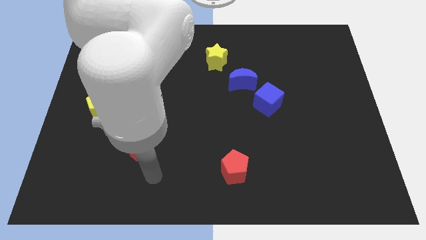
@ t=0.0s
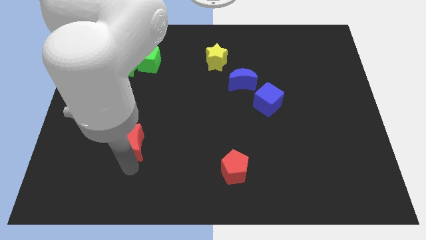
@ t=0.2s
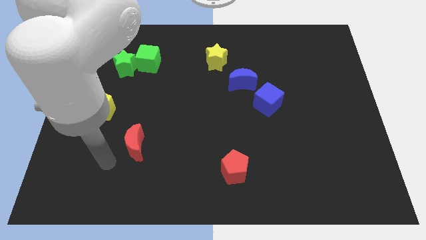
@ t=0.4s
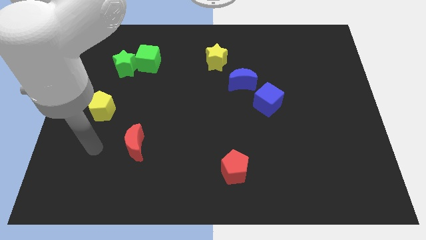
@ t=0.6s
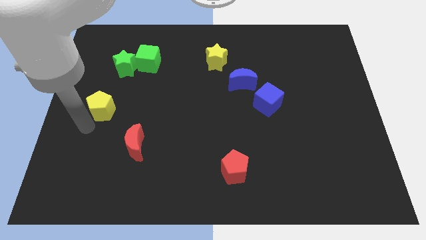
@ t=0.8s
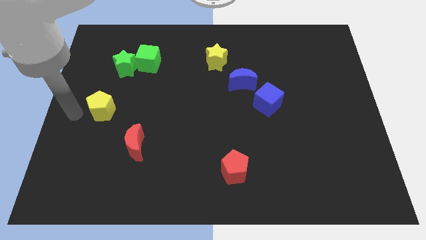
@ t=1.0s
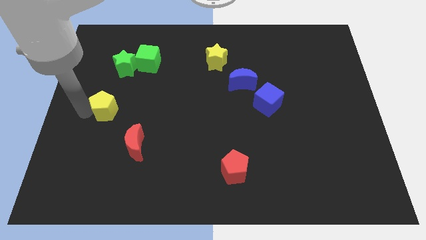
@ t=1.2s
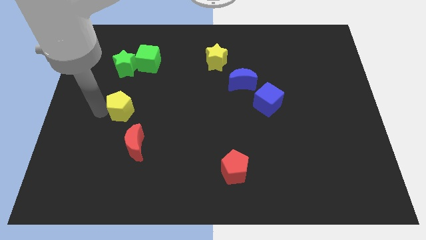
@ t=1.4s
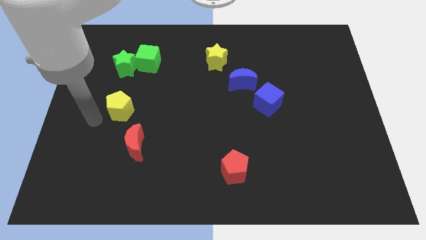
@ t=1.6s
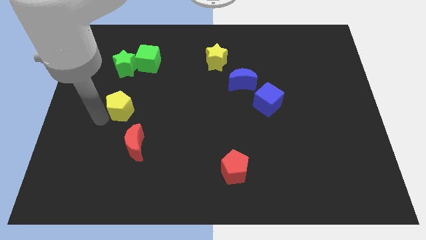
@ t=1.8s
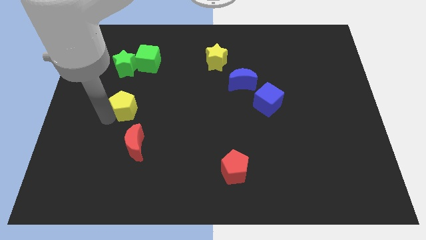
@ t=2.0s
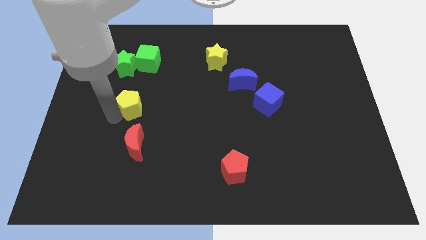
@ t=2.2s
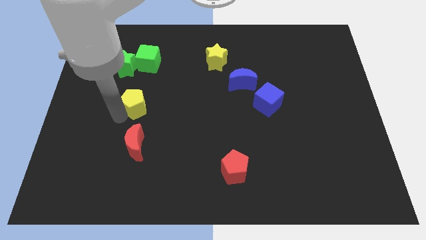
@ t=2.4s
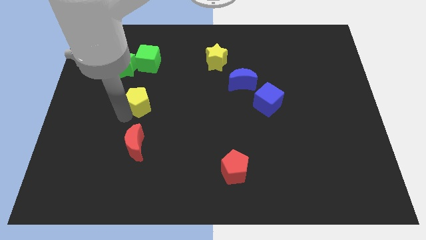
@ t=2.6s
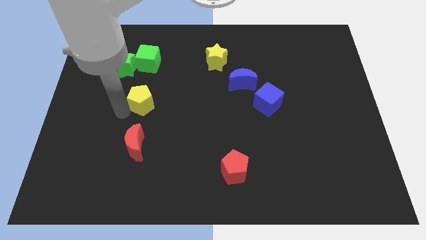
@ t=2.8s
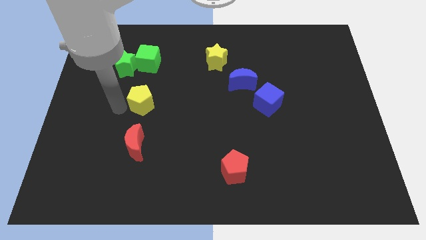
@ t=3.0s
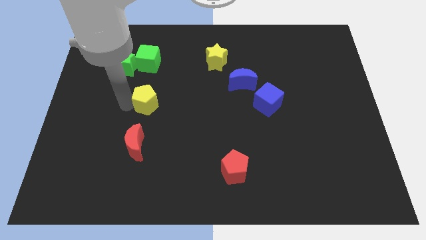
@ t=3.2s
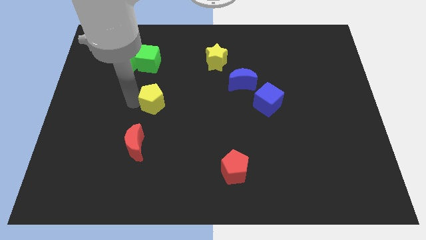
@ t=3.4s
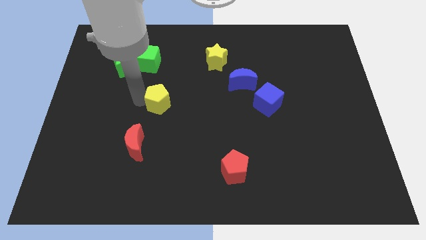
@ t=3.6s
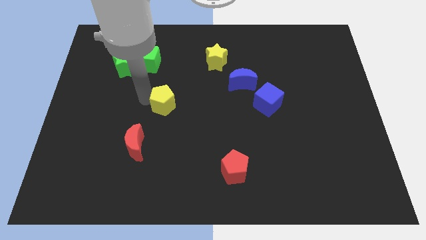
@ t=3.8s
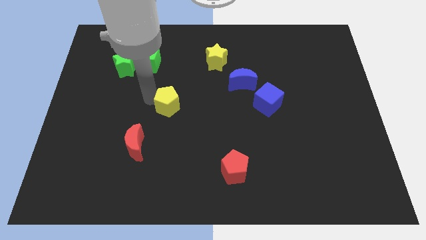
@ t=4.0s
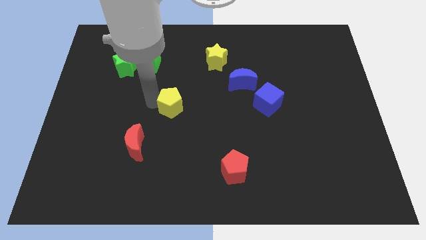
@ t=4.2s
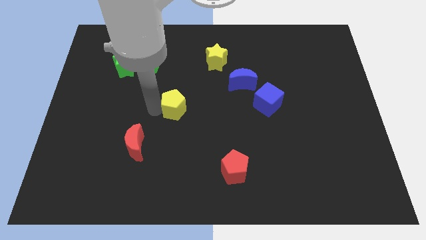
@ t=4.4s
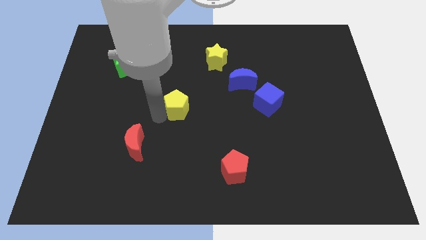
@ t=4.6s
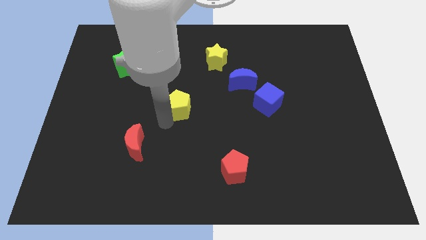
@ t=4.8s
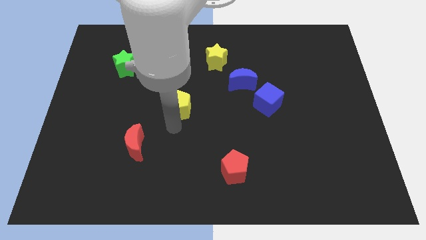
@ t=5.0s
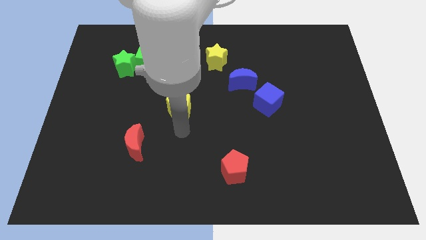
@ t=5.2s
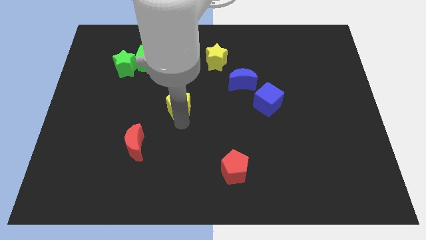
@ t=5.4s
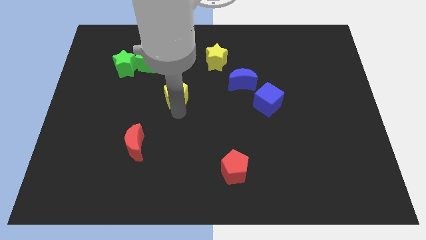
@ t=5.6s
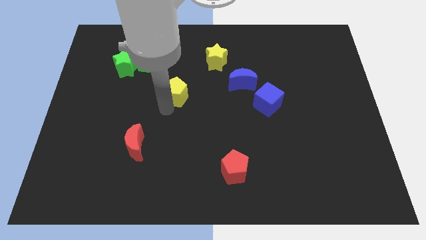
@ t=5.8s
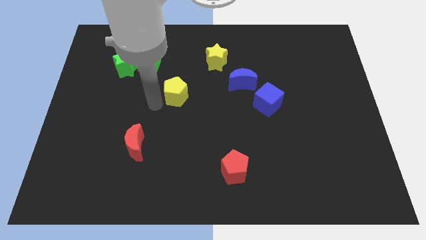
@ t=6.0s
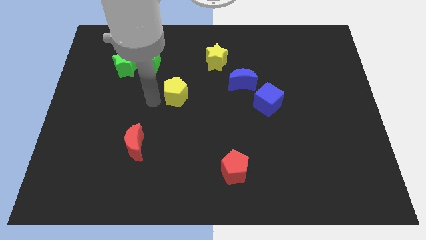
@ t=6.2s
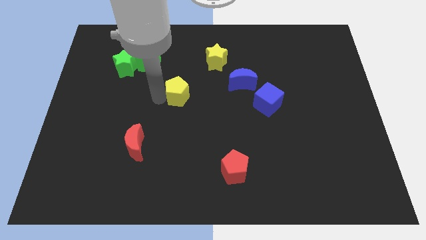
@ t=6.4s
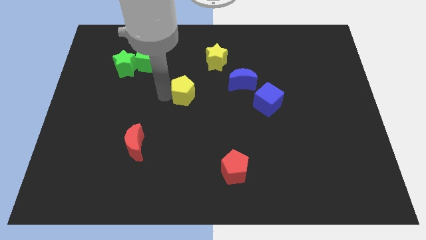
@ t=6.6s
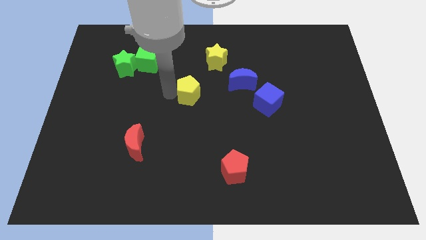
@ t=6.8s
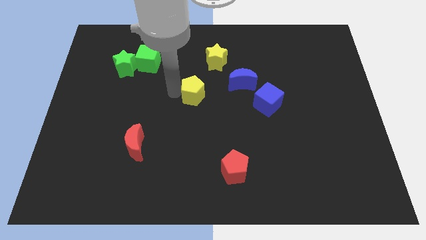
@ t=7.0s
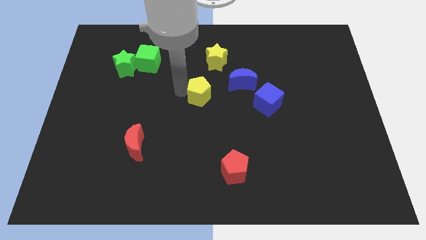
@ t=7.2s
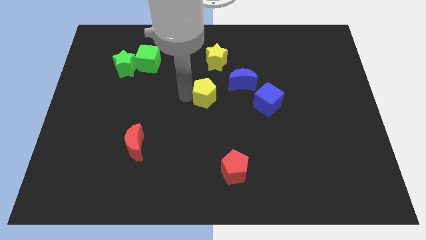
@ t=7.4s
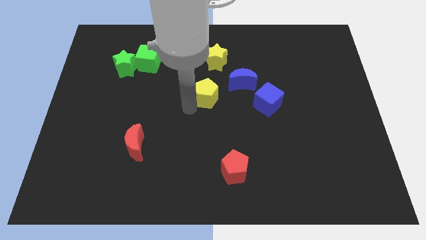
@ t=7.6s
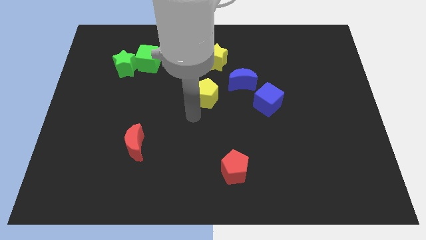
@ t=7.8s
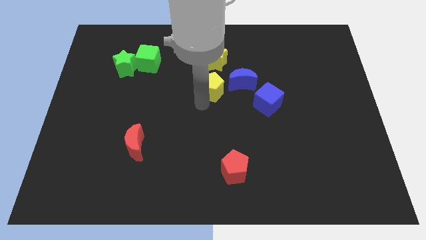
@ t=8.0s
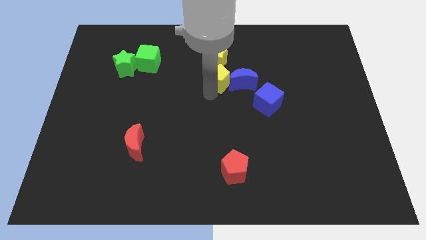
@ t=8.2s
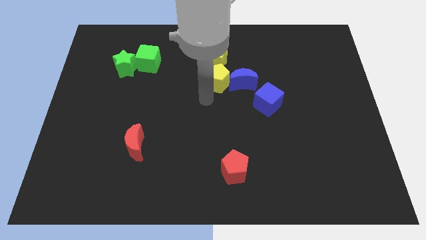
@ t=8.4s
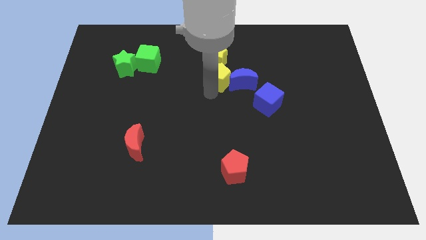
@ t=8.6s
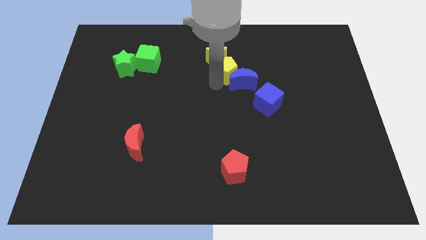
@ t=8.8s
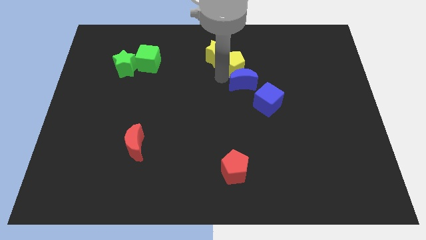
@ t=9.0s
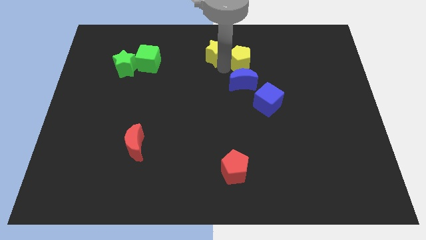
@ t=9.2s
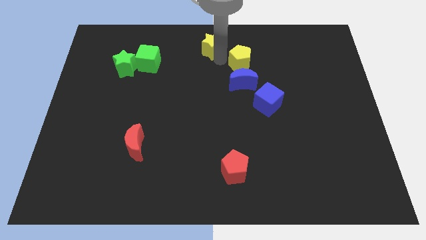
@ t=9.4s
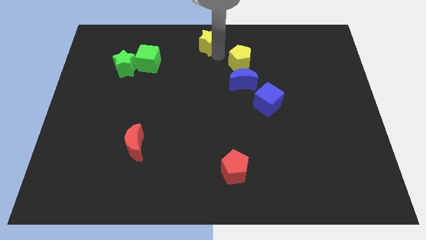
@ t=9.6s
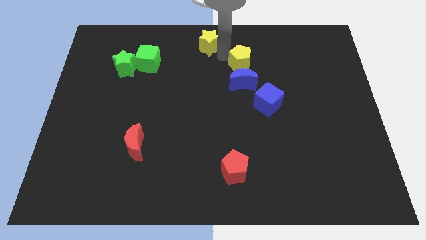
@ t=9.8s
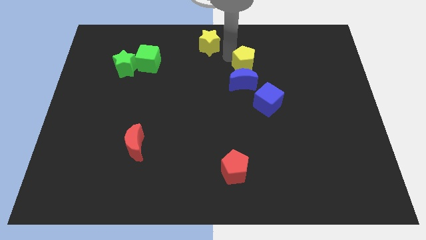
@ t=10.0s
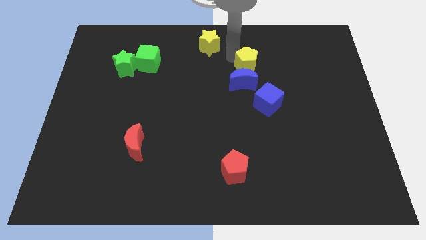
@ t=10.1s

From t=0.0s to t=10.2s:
move the yellow pentagon to the top of the blue cube

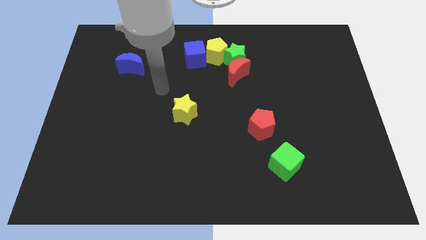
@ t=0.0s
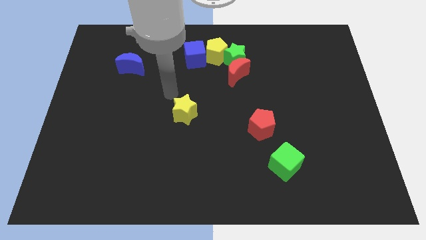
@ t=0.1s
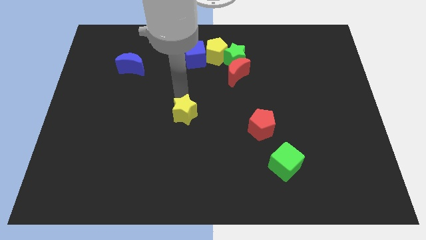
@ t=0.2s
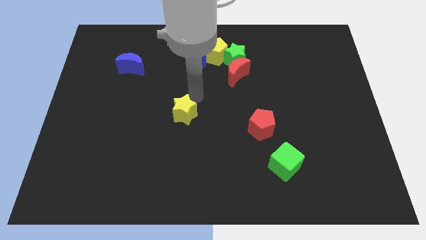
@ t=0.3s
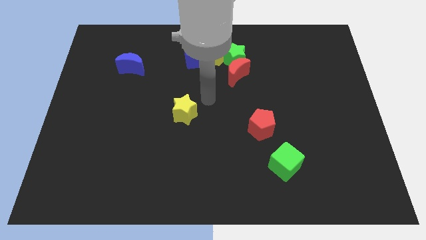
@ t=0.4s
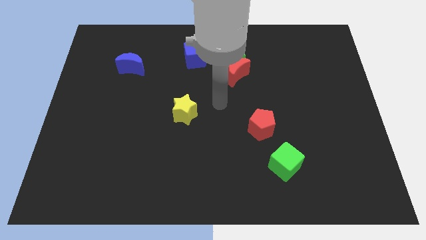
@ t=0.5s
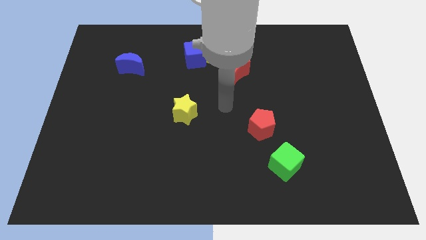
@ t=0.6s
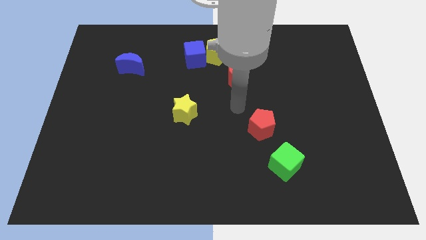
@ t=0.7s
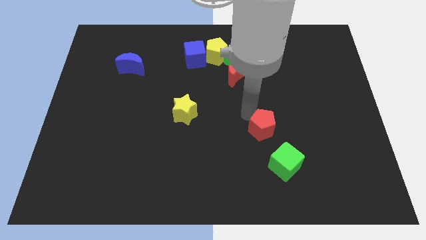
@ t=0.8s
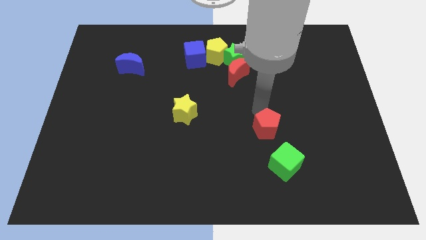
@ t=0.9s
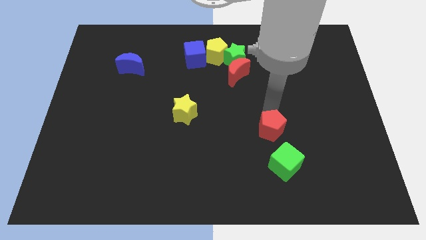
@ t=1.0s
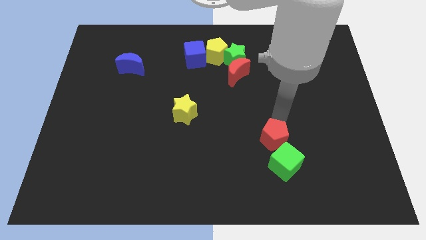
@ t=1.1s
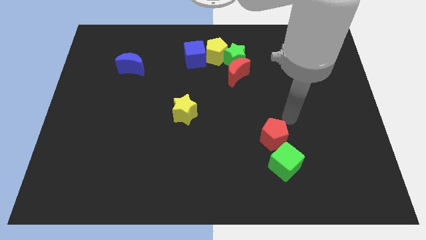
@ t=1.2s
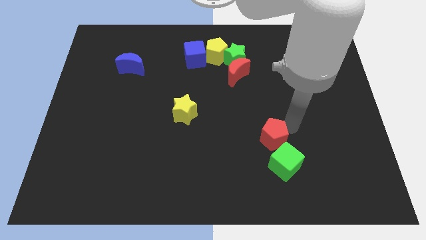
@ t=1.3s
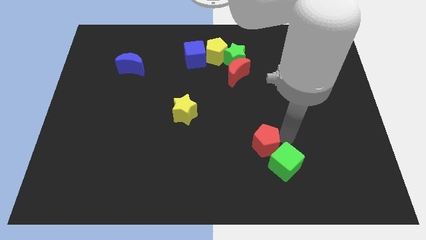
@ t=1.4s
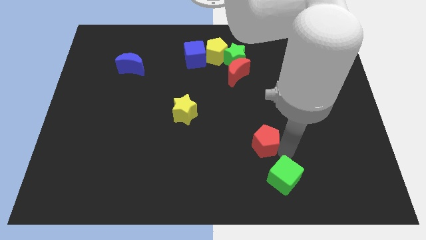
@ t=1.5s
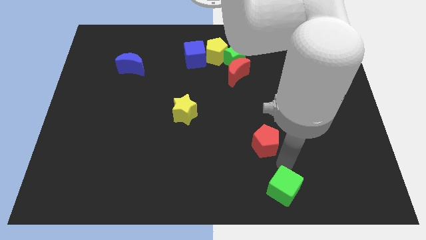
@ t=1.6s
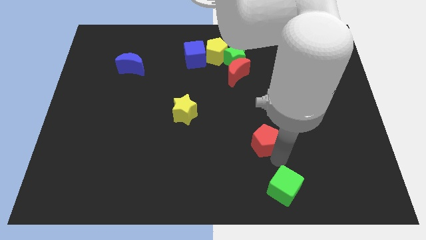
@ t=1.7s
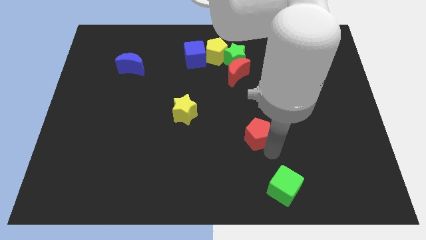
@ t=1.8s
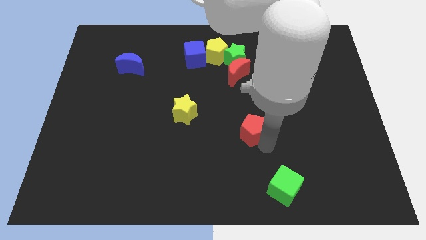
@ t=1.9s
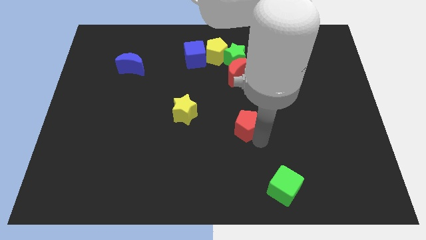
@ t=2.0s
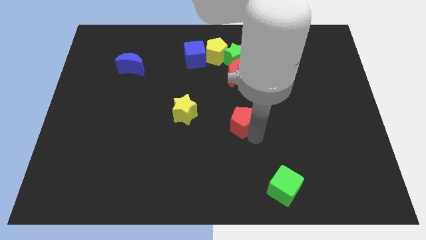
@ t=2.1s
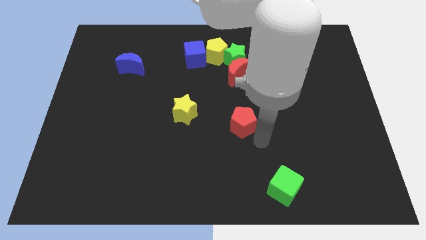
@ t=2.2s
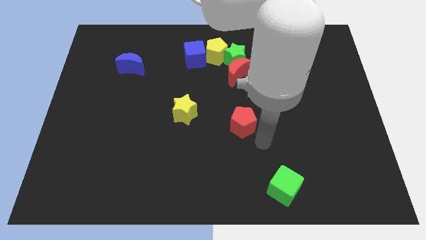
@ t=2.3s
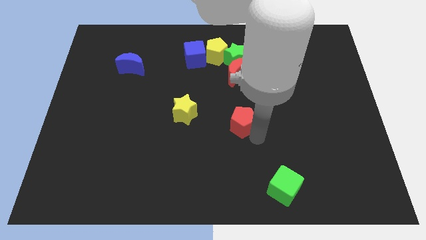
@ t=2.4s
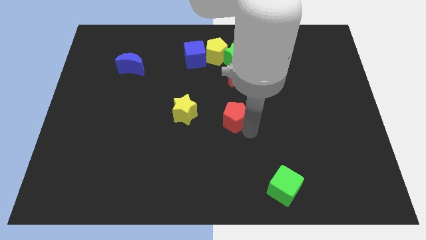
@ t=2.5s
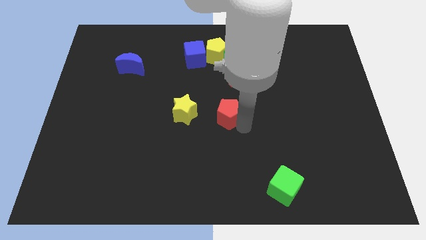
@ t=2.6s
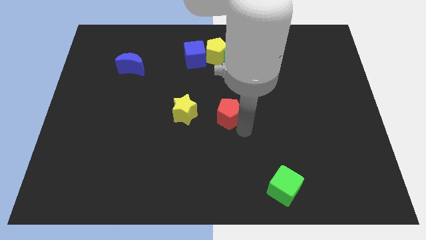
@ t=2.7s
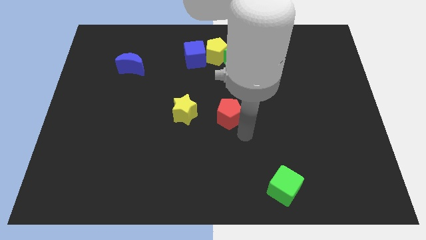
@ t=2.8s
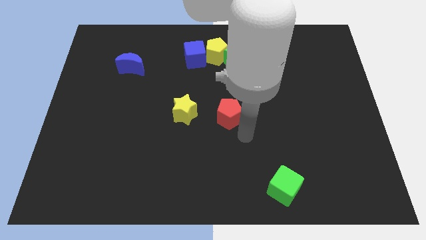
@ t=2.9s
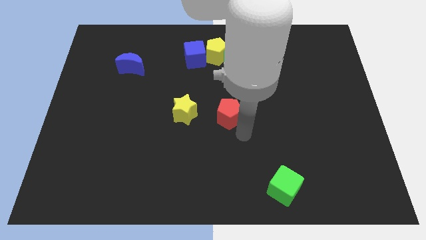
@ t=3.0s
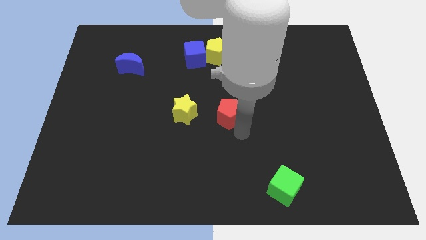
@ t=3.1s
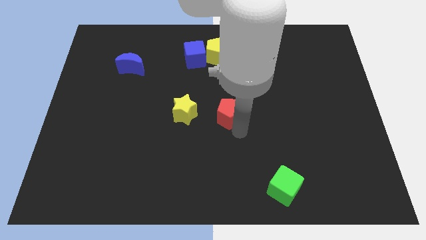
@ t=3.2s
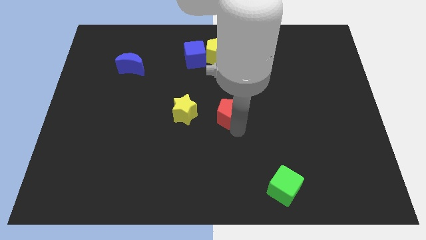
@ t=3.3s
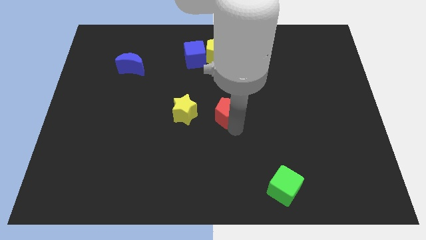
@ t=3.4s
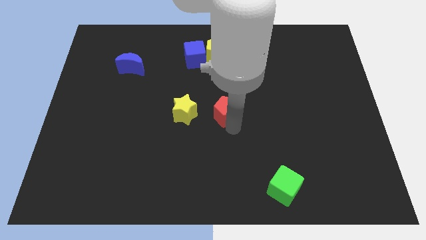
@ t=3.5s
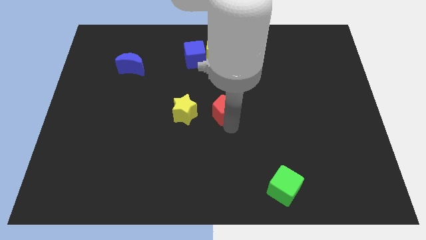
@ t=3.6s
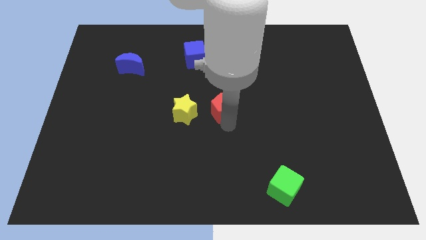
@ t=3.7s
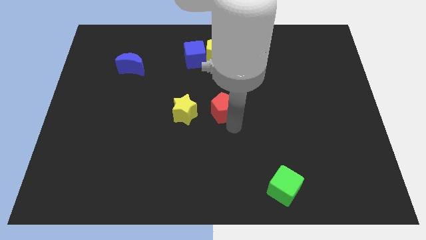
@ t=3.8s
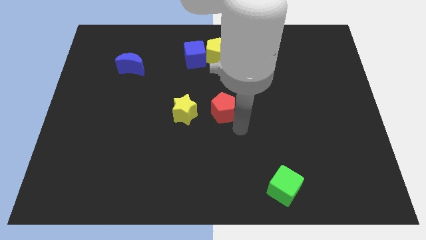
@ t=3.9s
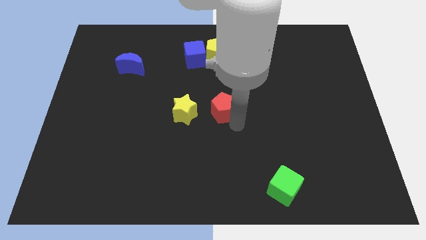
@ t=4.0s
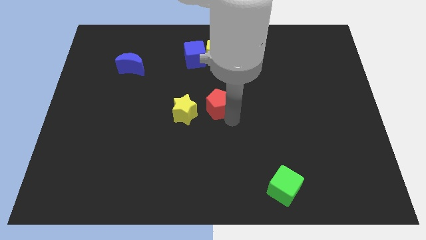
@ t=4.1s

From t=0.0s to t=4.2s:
move the red pentagon diagonally up and to the right of the yellow star
